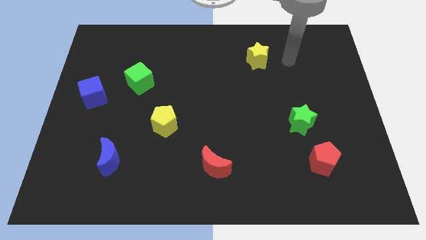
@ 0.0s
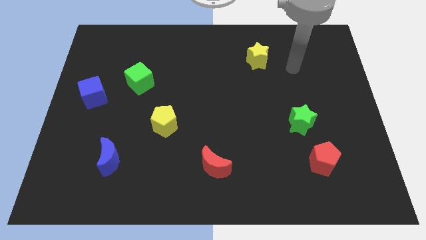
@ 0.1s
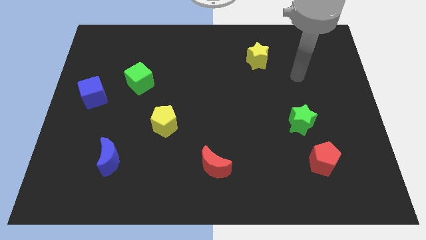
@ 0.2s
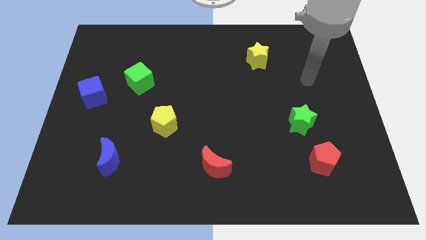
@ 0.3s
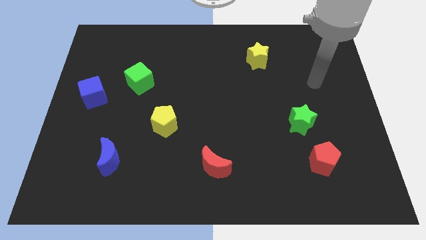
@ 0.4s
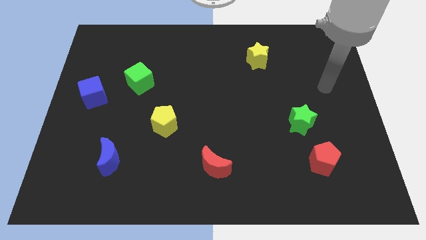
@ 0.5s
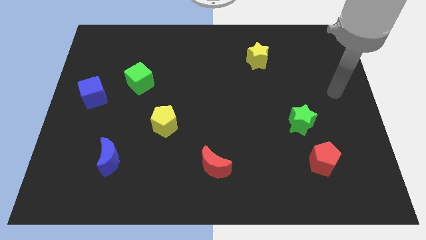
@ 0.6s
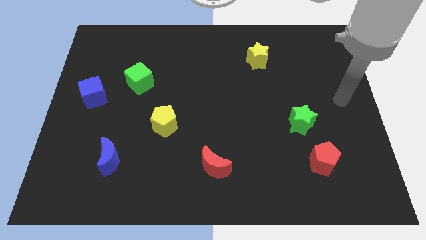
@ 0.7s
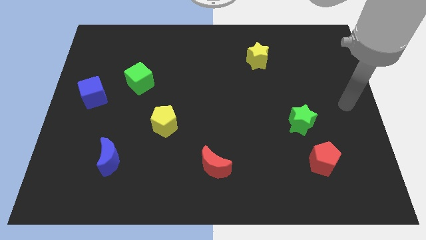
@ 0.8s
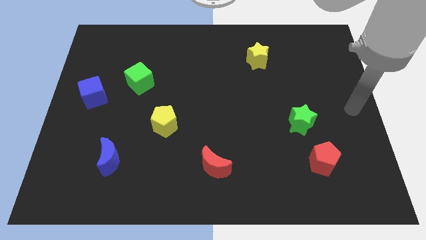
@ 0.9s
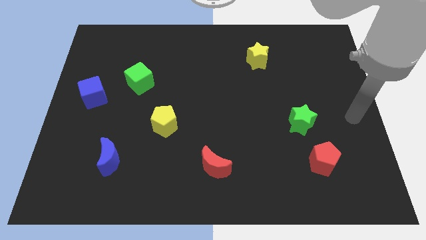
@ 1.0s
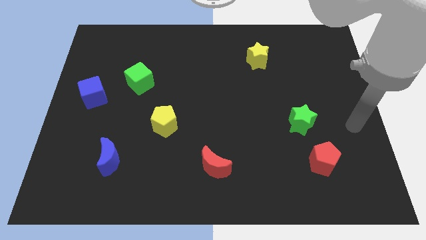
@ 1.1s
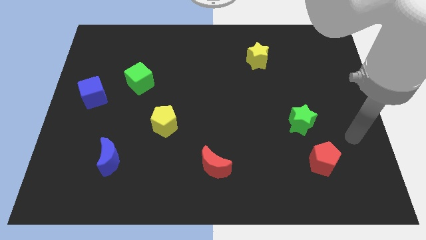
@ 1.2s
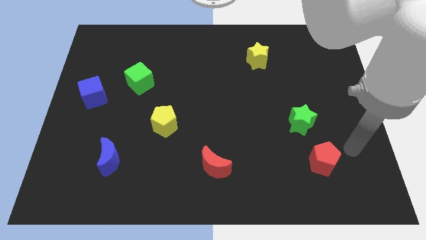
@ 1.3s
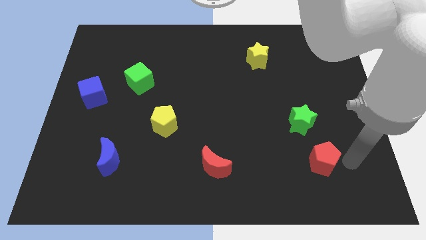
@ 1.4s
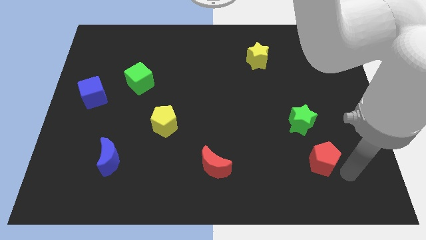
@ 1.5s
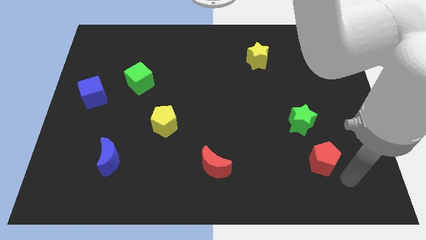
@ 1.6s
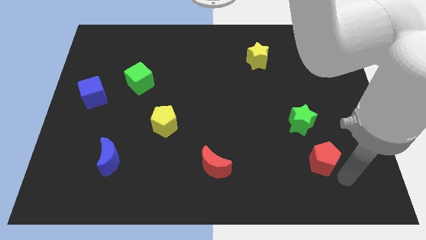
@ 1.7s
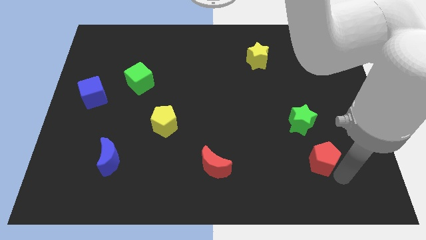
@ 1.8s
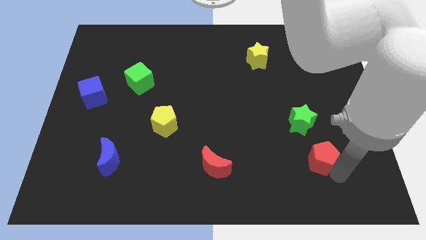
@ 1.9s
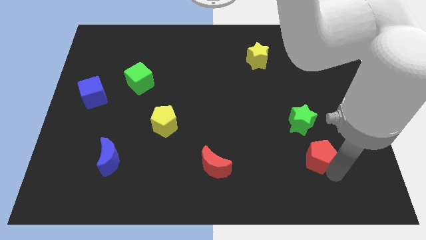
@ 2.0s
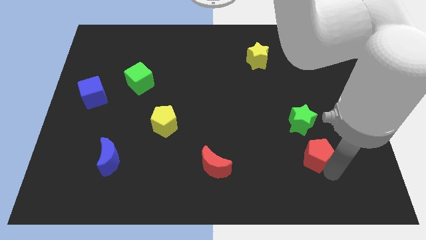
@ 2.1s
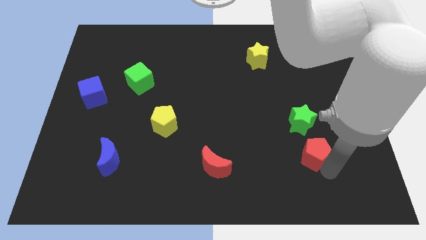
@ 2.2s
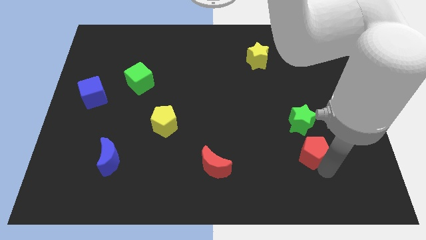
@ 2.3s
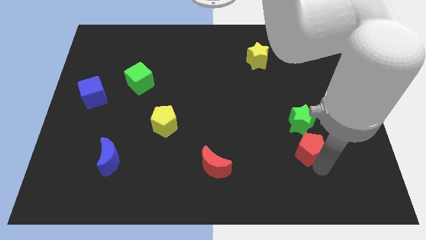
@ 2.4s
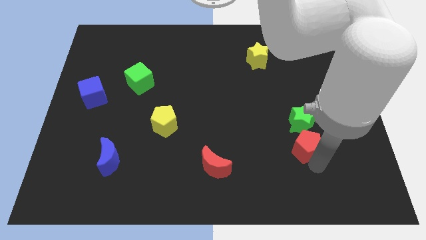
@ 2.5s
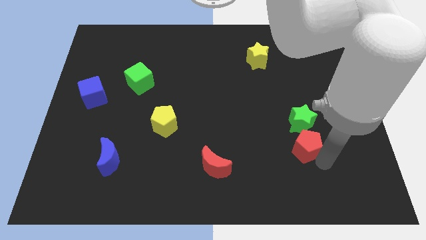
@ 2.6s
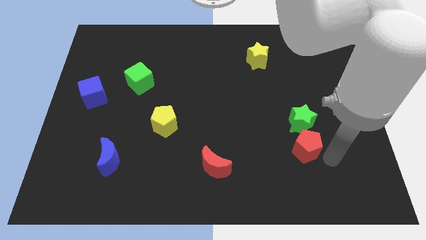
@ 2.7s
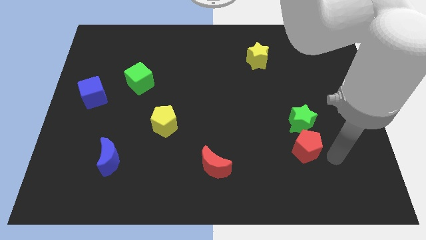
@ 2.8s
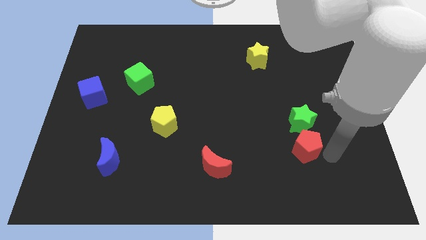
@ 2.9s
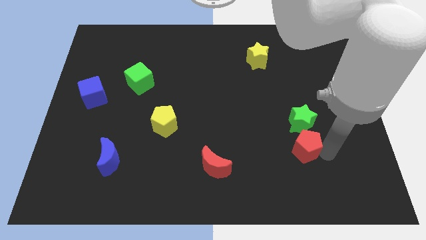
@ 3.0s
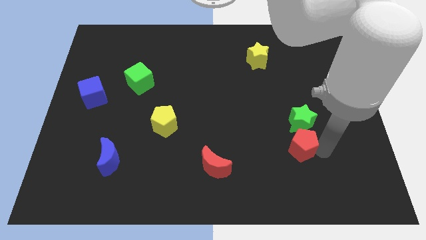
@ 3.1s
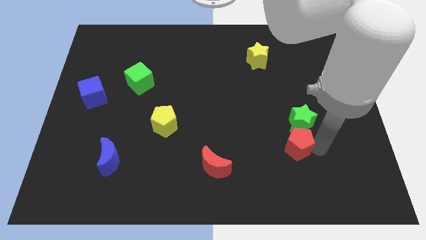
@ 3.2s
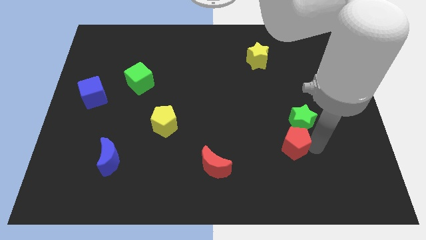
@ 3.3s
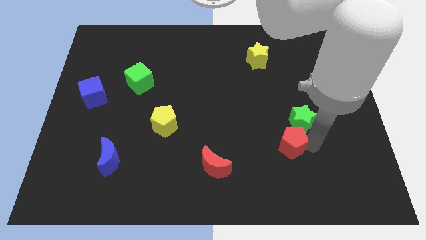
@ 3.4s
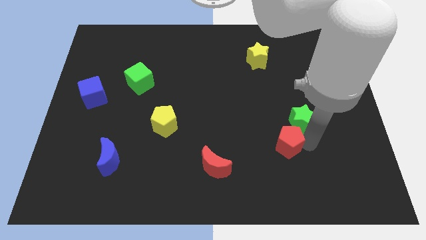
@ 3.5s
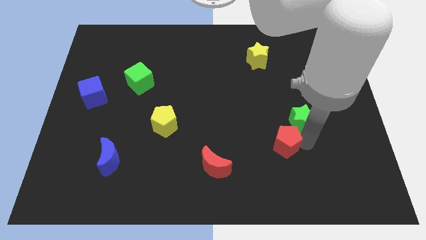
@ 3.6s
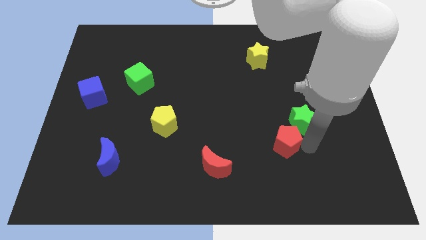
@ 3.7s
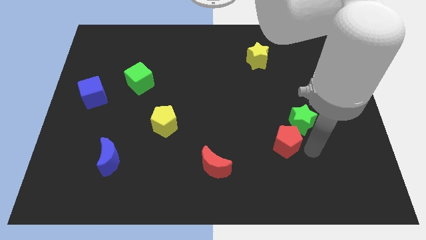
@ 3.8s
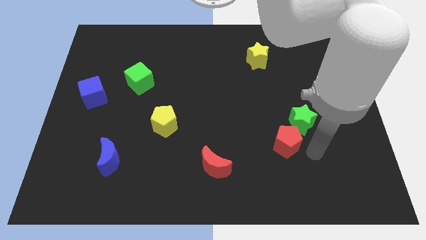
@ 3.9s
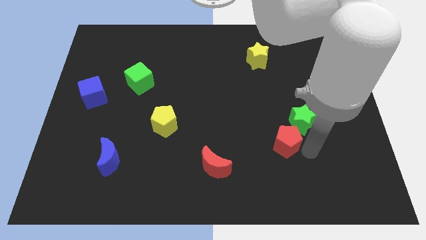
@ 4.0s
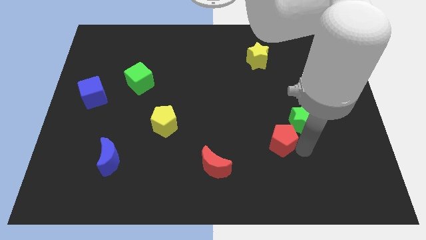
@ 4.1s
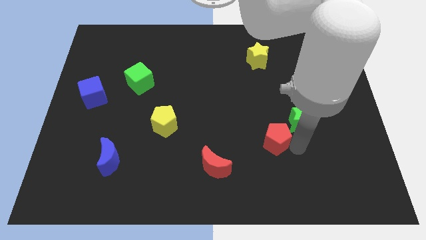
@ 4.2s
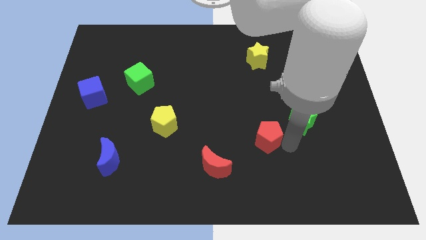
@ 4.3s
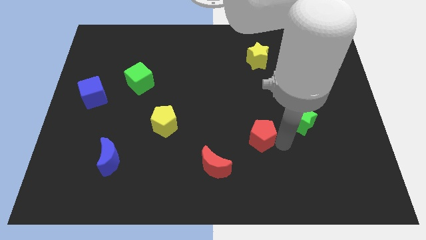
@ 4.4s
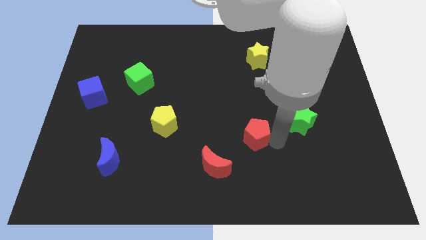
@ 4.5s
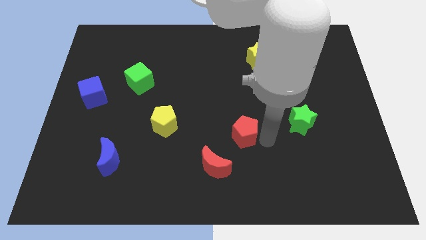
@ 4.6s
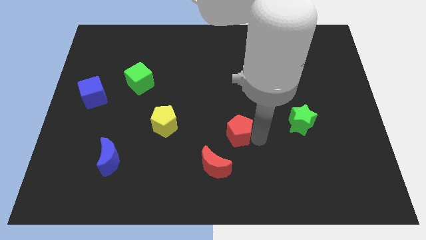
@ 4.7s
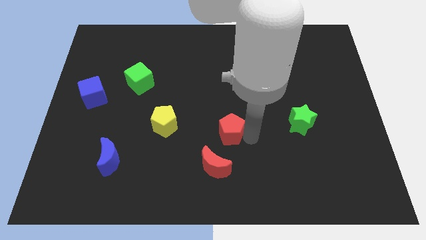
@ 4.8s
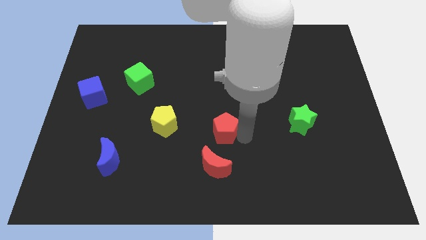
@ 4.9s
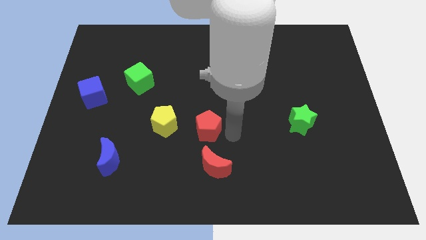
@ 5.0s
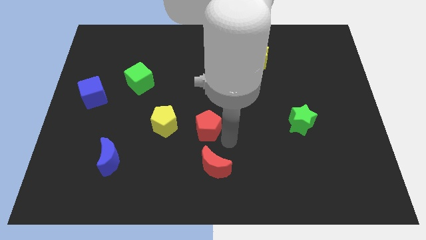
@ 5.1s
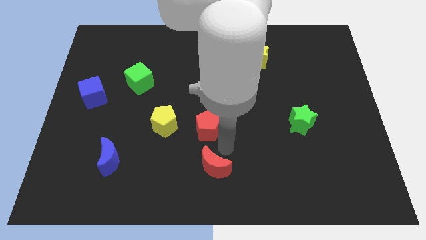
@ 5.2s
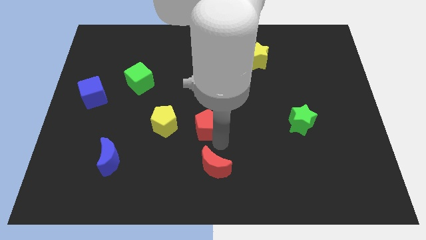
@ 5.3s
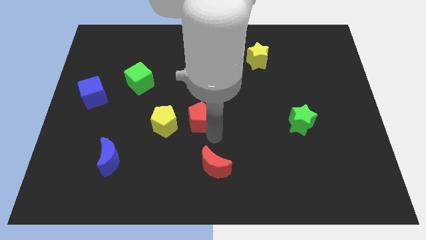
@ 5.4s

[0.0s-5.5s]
push the red pentagon to the top right of the yellow pentagon

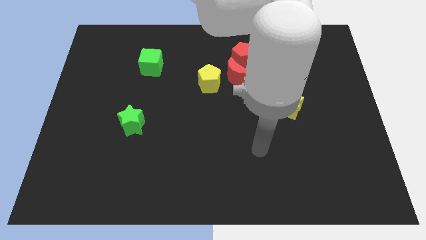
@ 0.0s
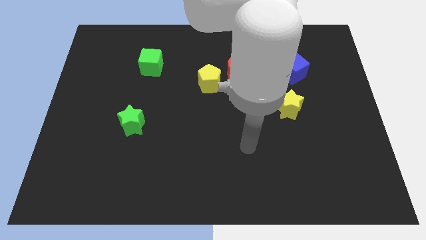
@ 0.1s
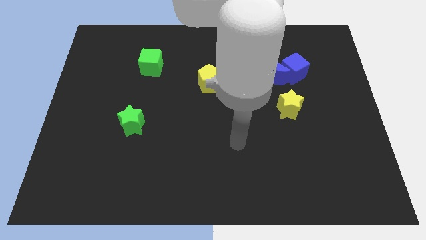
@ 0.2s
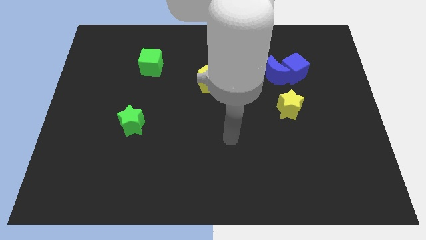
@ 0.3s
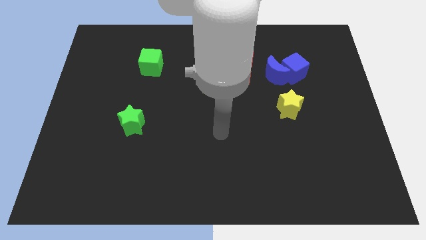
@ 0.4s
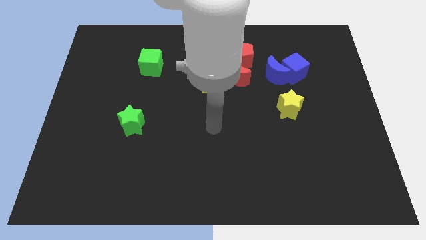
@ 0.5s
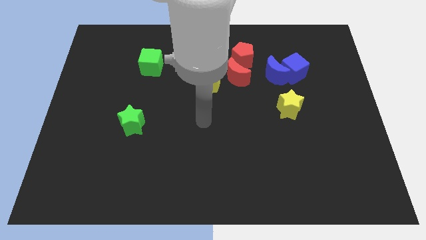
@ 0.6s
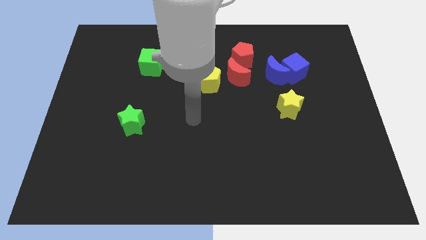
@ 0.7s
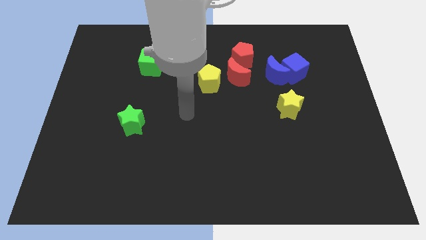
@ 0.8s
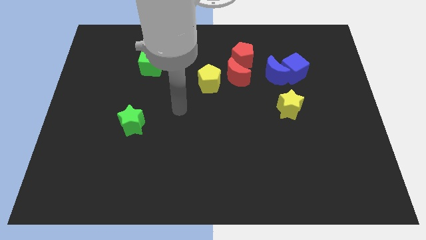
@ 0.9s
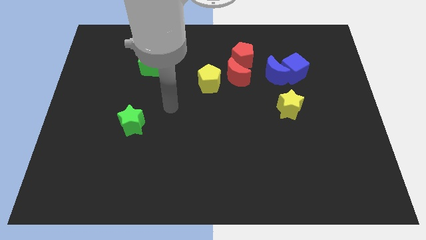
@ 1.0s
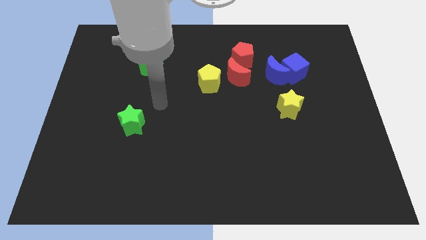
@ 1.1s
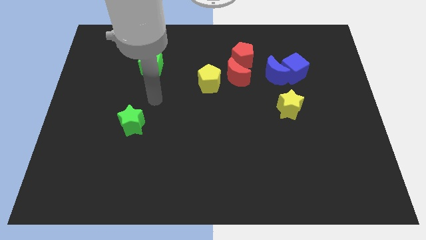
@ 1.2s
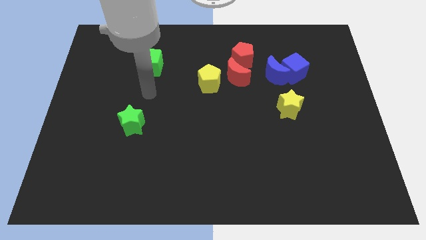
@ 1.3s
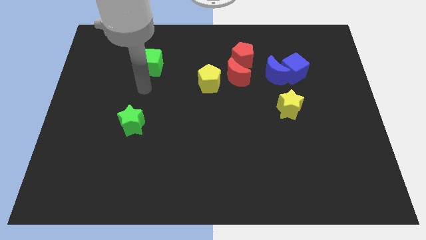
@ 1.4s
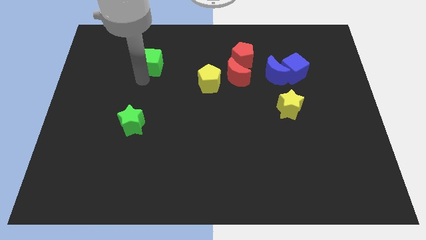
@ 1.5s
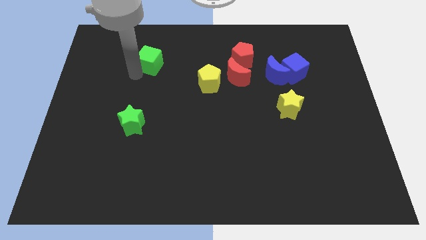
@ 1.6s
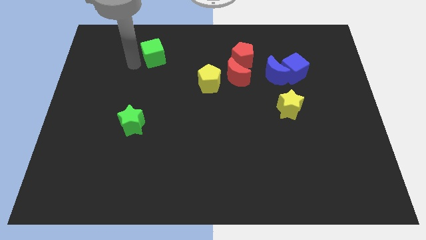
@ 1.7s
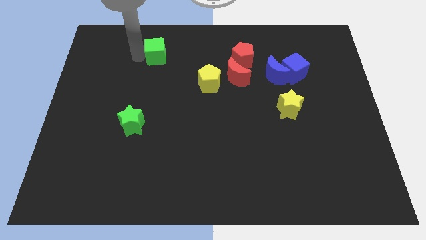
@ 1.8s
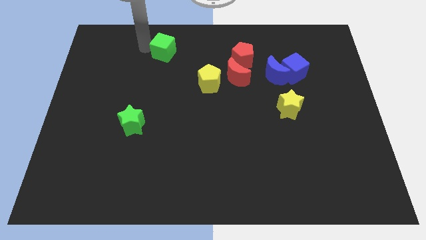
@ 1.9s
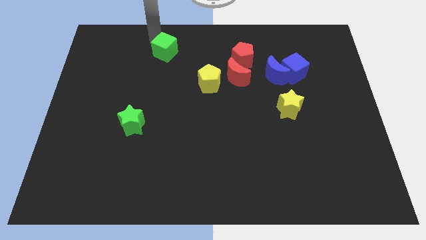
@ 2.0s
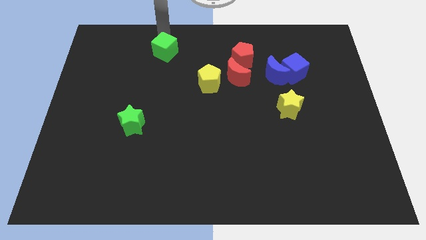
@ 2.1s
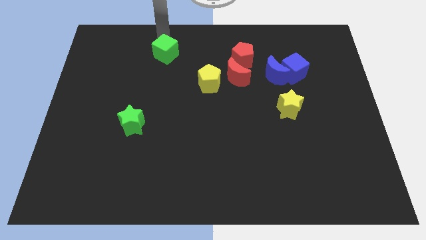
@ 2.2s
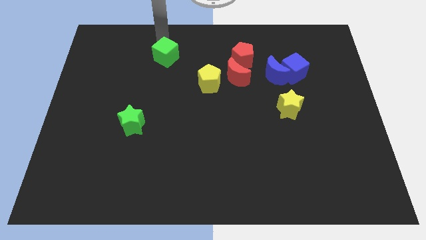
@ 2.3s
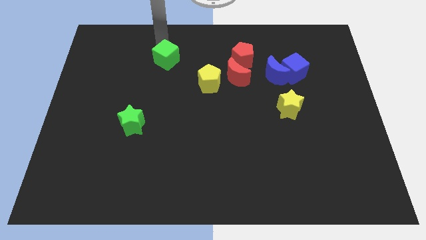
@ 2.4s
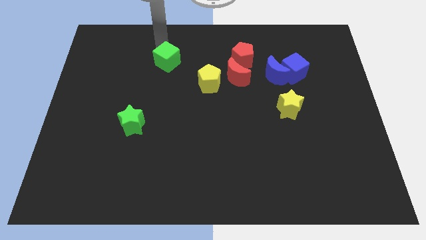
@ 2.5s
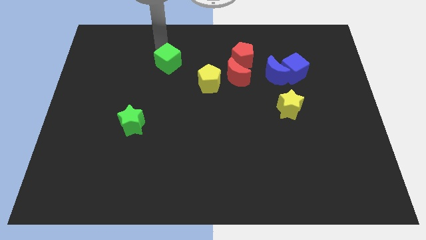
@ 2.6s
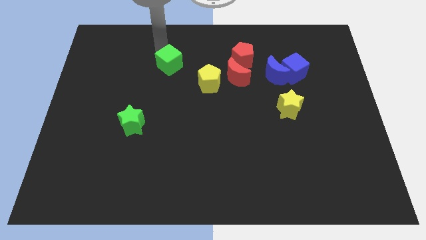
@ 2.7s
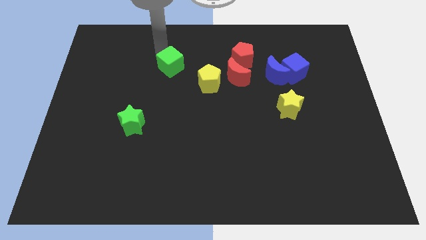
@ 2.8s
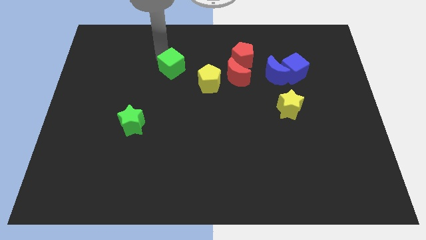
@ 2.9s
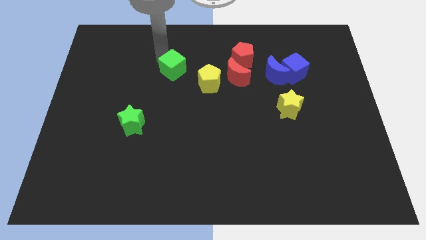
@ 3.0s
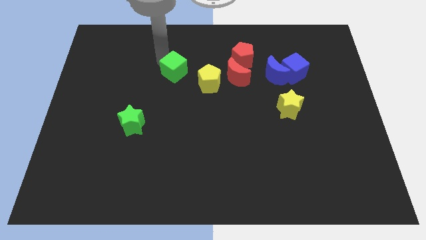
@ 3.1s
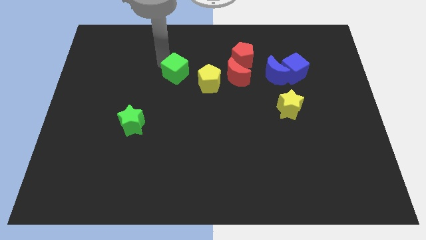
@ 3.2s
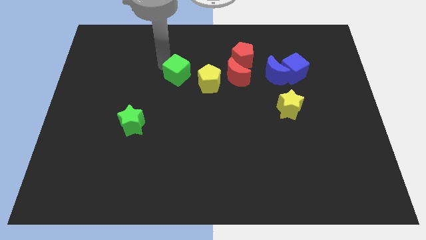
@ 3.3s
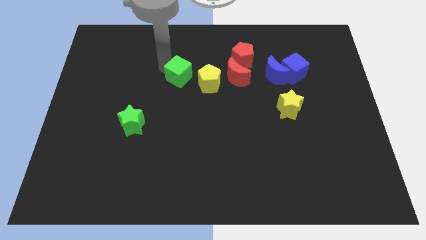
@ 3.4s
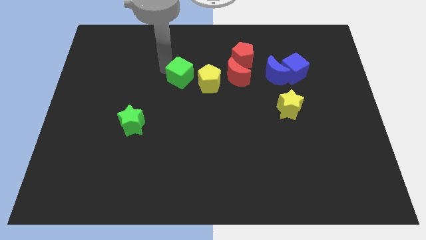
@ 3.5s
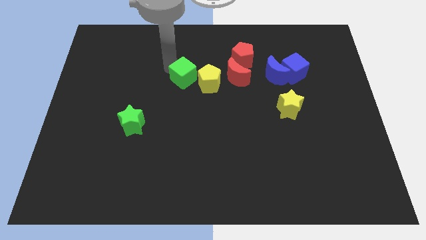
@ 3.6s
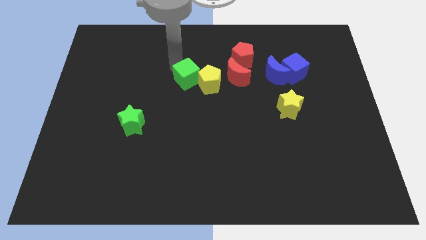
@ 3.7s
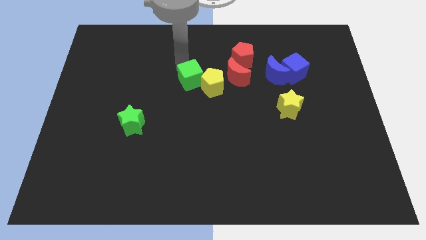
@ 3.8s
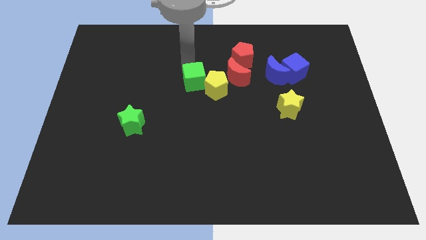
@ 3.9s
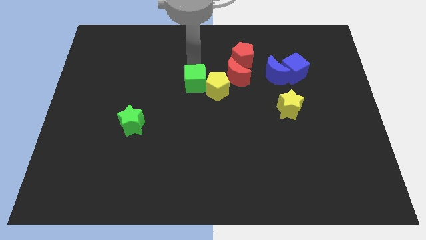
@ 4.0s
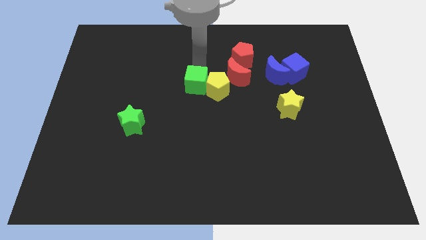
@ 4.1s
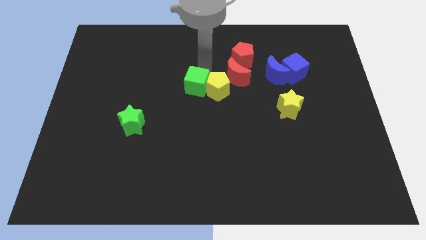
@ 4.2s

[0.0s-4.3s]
move the green cube to the bottom left of the red moon
